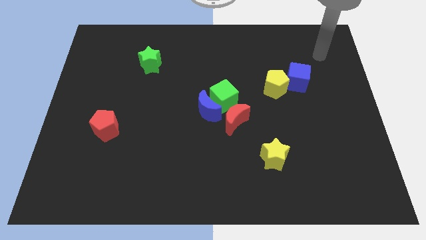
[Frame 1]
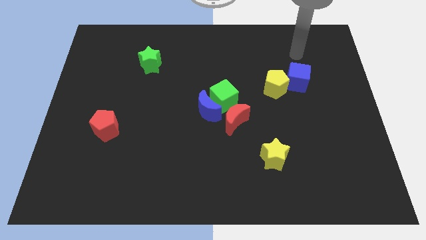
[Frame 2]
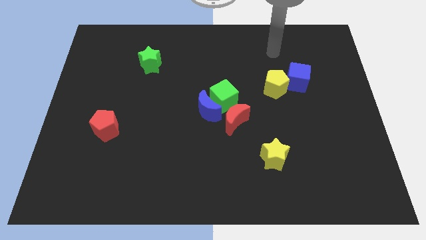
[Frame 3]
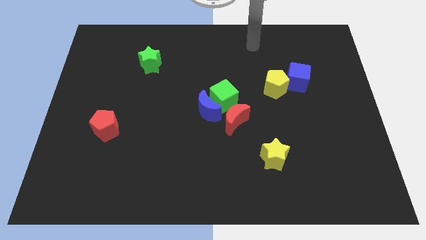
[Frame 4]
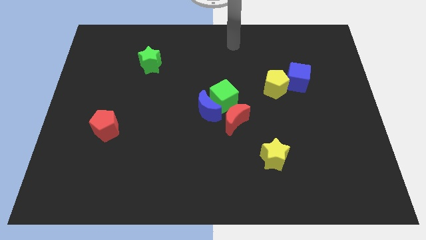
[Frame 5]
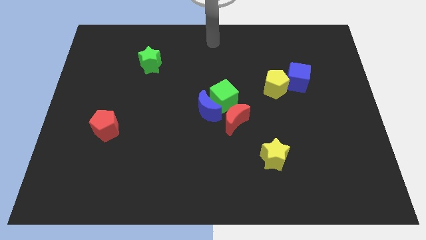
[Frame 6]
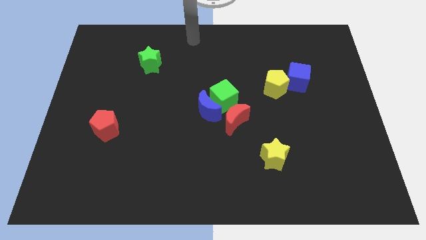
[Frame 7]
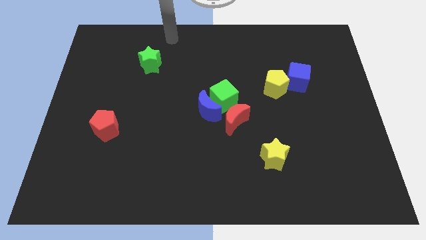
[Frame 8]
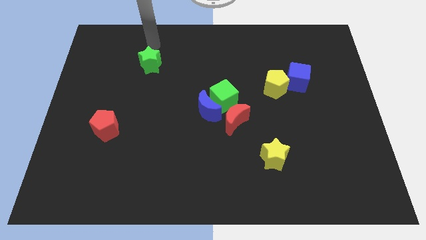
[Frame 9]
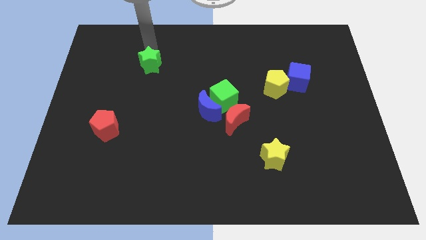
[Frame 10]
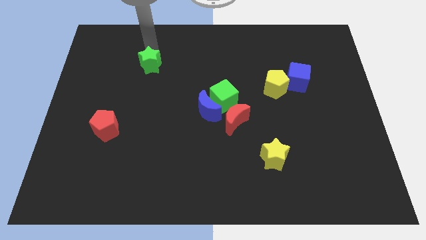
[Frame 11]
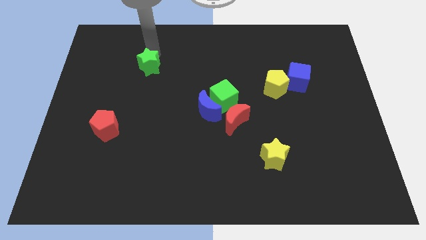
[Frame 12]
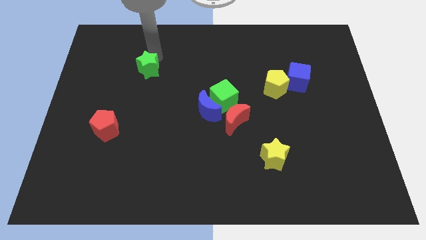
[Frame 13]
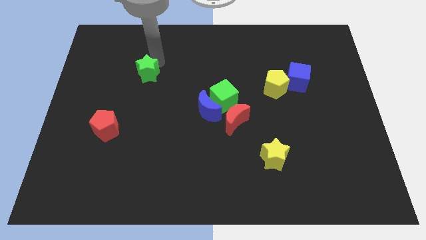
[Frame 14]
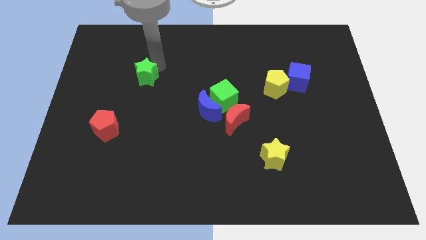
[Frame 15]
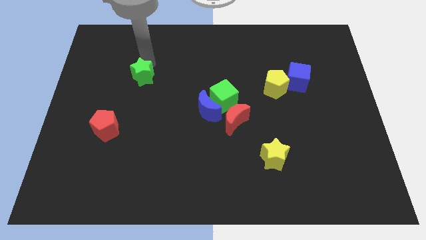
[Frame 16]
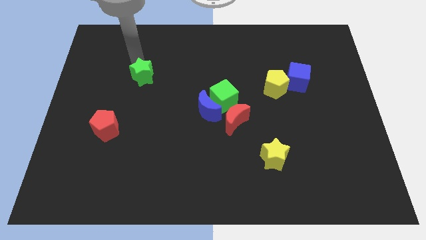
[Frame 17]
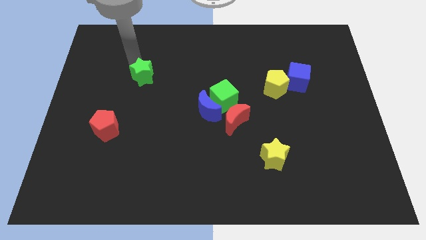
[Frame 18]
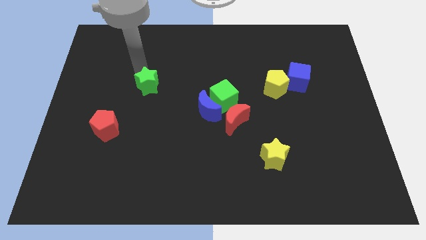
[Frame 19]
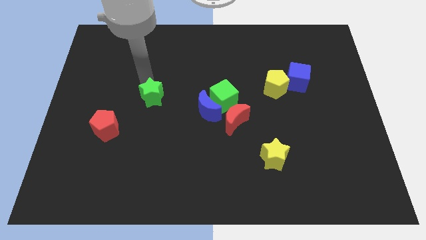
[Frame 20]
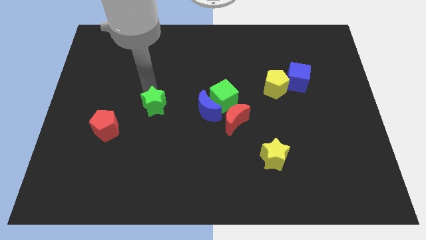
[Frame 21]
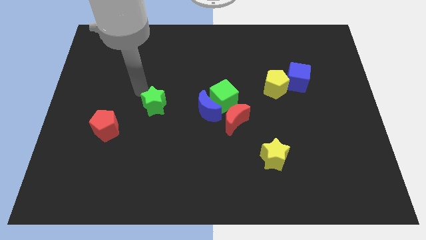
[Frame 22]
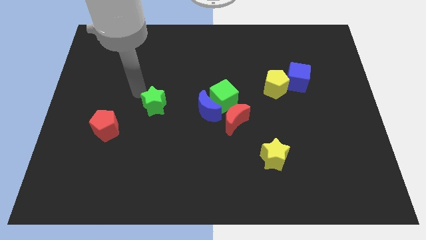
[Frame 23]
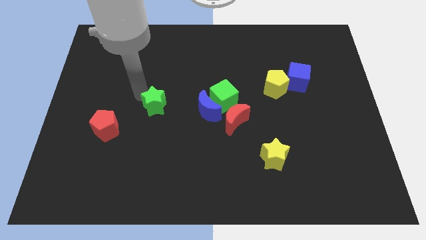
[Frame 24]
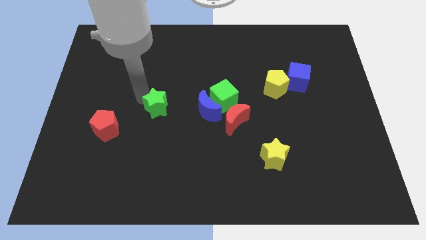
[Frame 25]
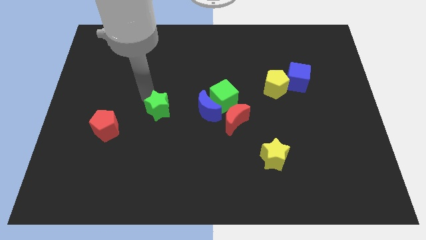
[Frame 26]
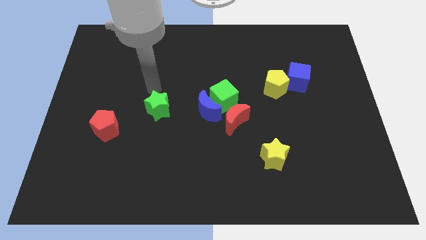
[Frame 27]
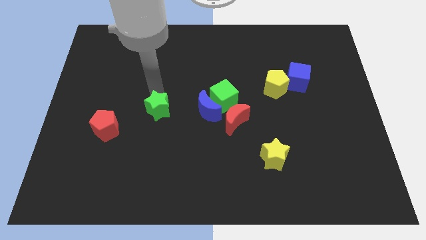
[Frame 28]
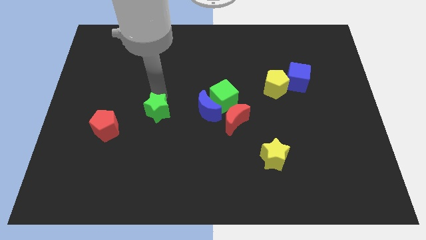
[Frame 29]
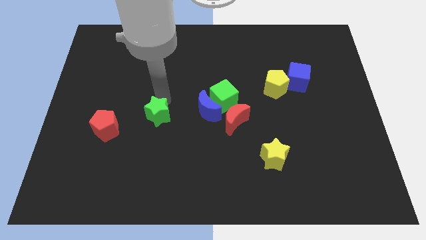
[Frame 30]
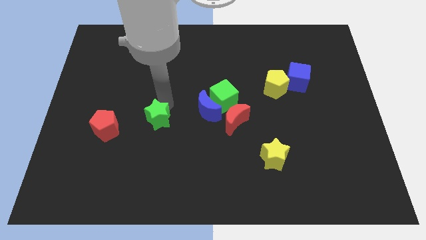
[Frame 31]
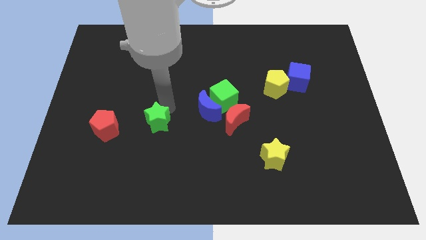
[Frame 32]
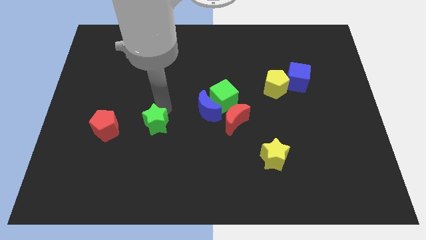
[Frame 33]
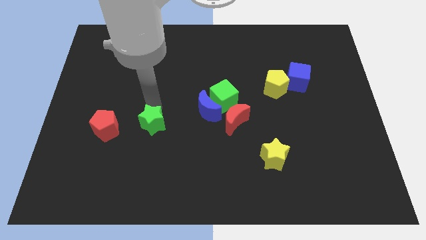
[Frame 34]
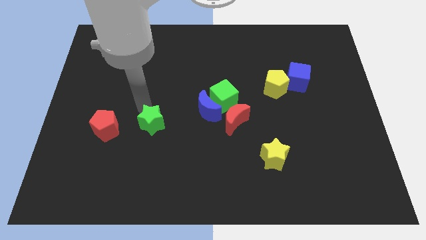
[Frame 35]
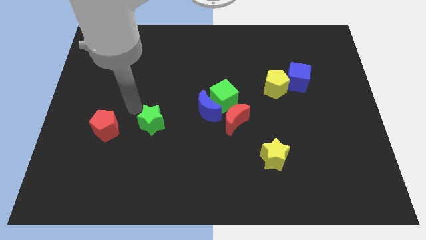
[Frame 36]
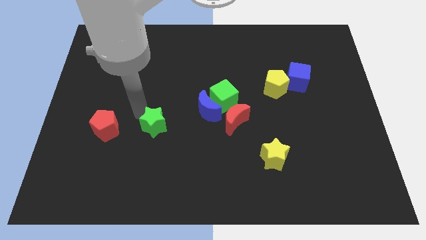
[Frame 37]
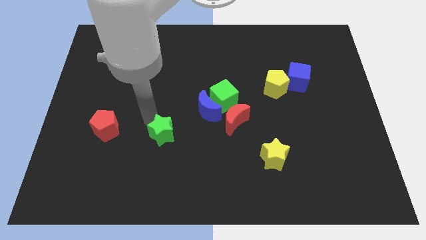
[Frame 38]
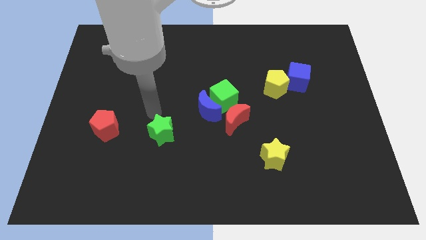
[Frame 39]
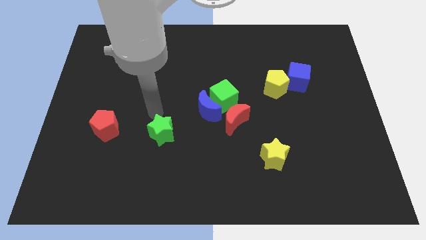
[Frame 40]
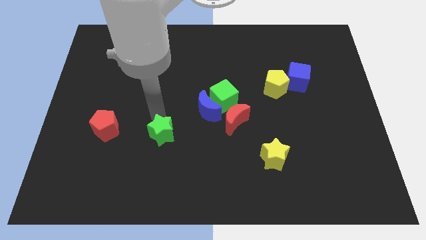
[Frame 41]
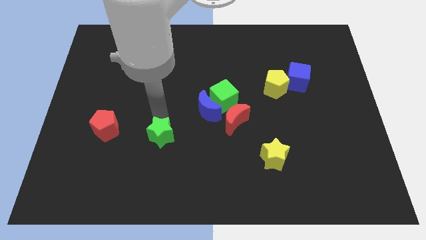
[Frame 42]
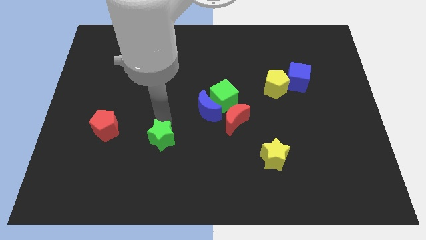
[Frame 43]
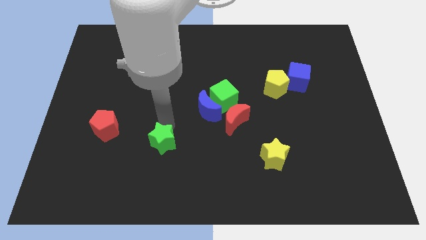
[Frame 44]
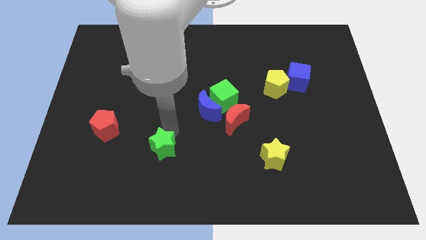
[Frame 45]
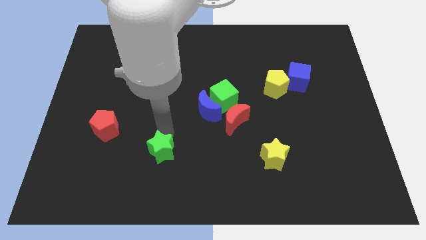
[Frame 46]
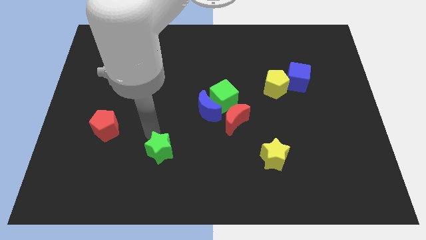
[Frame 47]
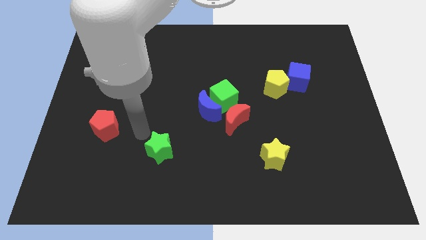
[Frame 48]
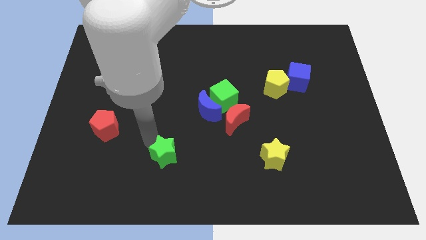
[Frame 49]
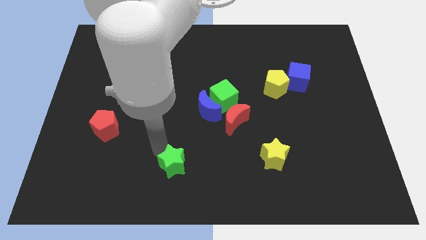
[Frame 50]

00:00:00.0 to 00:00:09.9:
push the green star to the bottom

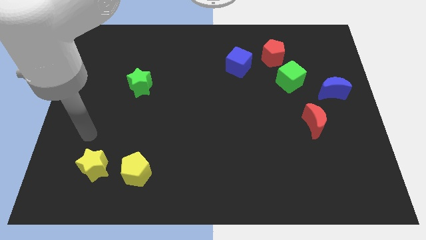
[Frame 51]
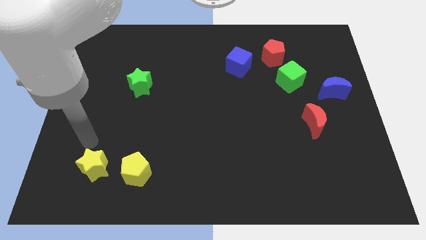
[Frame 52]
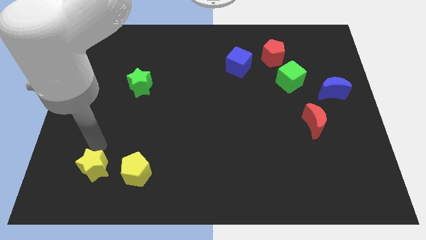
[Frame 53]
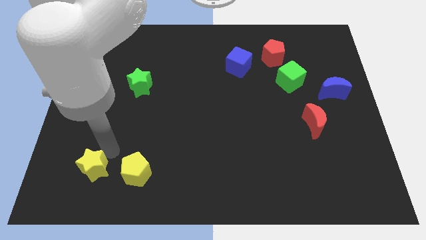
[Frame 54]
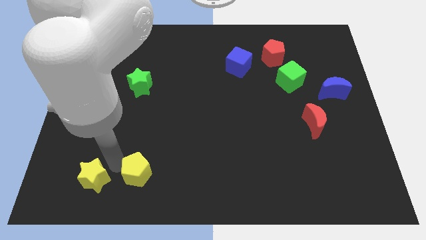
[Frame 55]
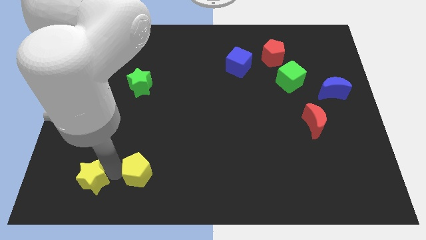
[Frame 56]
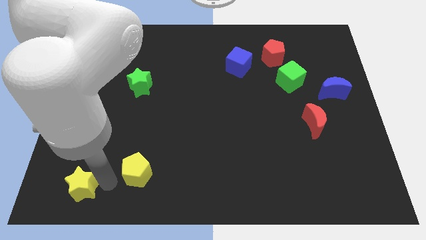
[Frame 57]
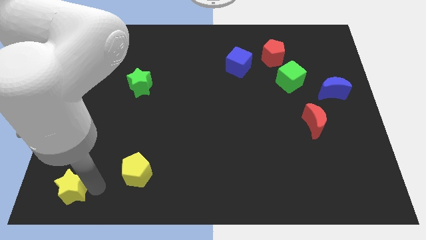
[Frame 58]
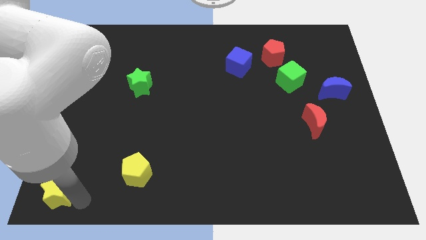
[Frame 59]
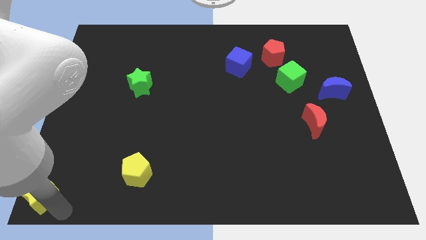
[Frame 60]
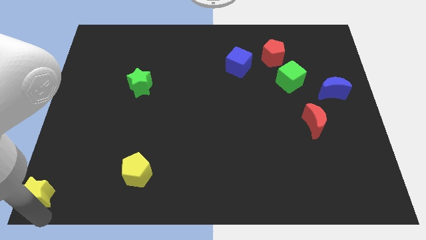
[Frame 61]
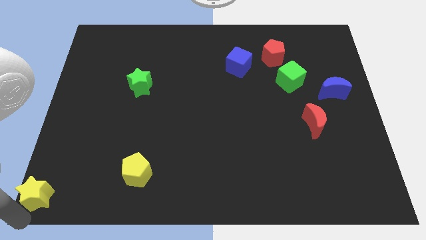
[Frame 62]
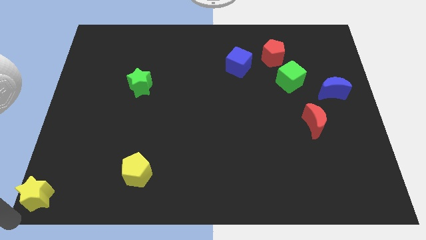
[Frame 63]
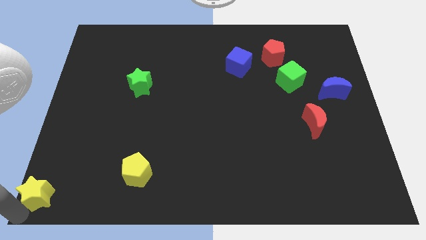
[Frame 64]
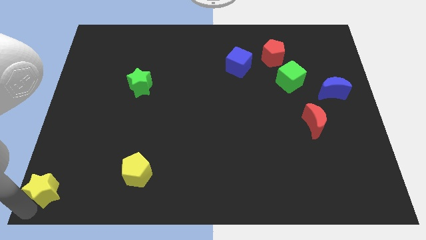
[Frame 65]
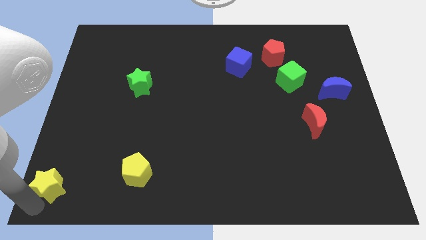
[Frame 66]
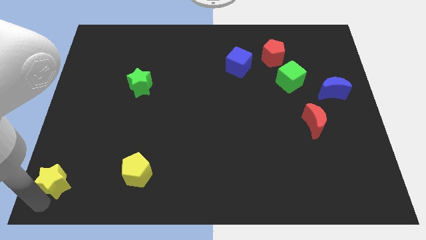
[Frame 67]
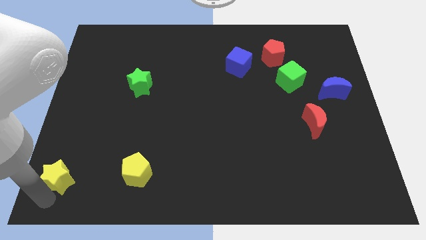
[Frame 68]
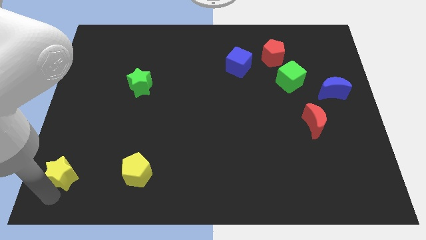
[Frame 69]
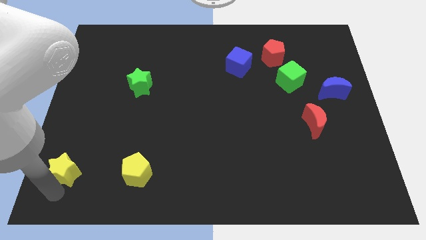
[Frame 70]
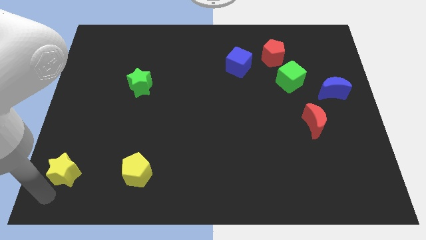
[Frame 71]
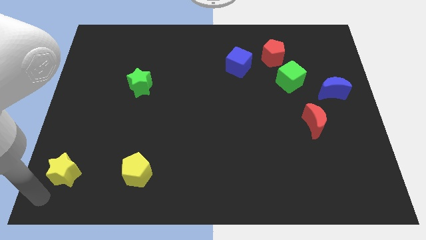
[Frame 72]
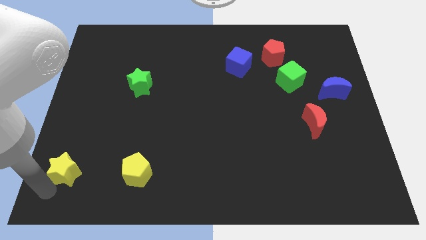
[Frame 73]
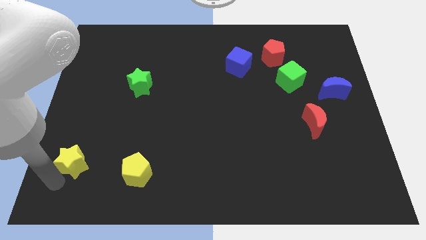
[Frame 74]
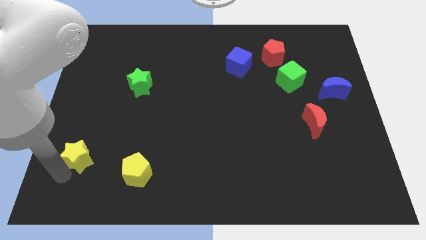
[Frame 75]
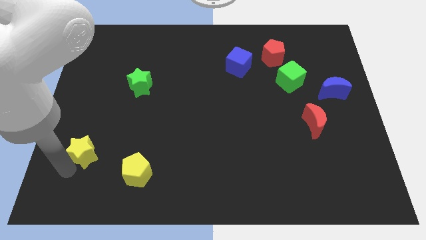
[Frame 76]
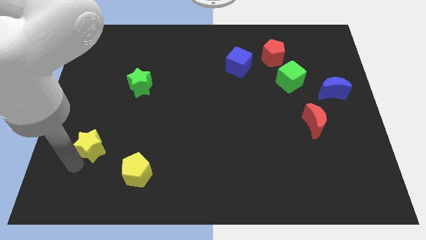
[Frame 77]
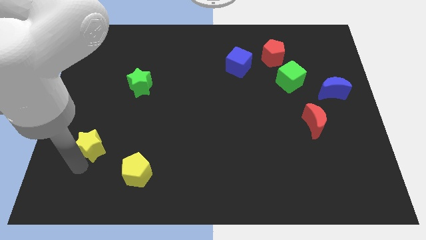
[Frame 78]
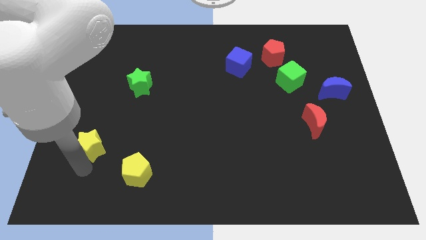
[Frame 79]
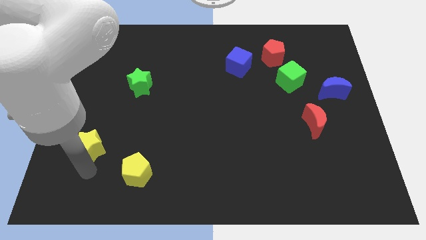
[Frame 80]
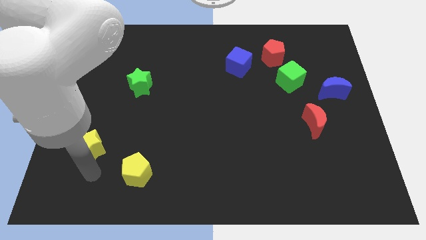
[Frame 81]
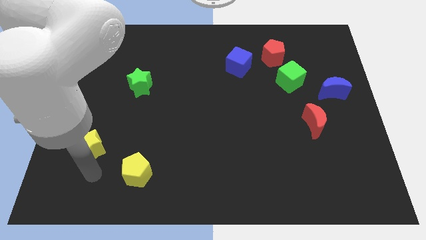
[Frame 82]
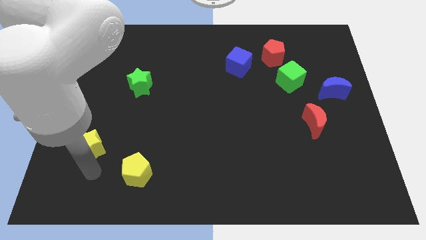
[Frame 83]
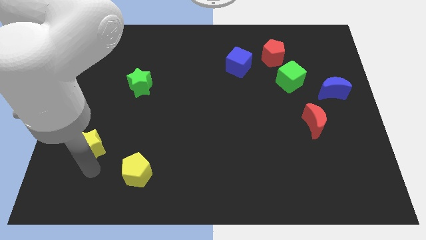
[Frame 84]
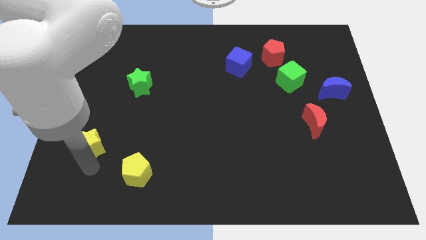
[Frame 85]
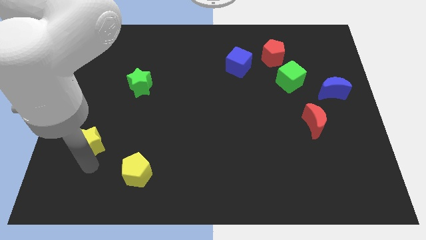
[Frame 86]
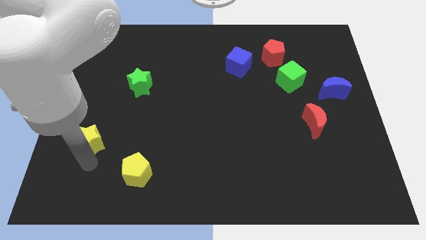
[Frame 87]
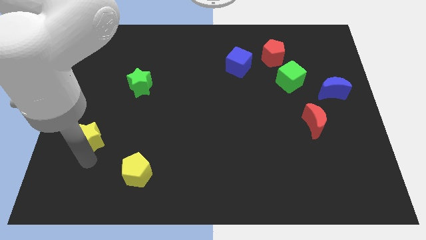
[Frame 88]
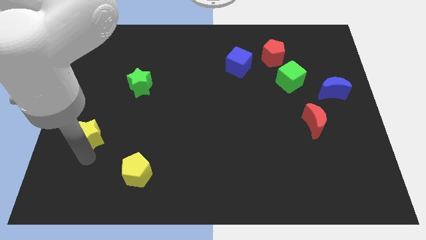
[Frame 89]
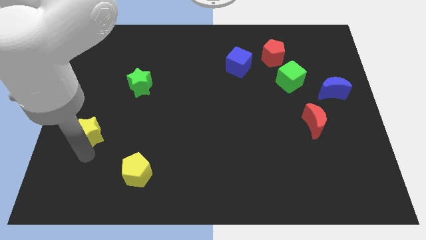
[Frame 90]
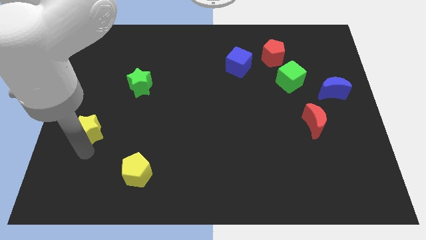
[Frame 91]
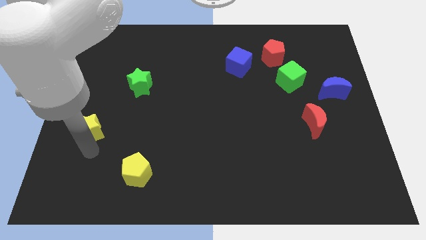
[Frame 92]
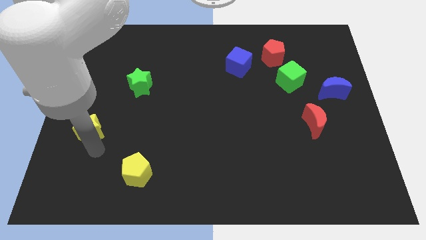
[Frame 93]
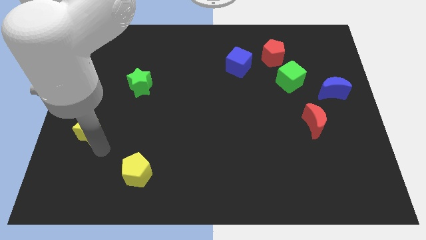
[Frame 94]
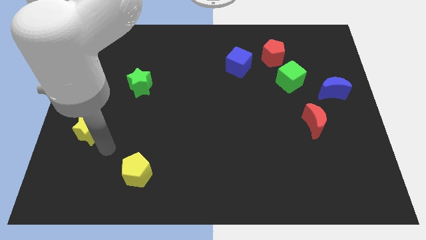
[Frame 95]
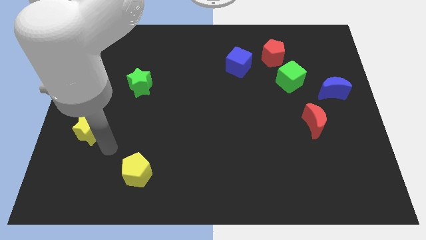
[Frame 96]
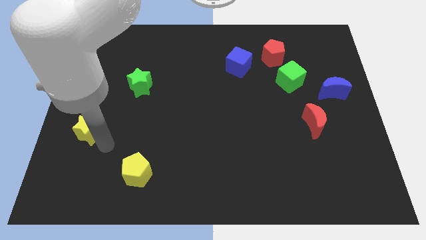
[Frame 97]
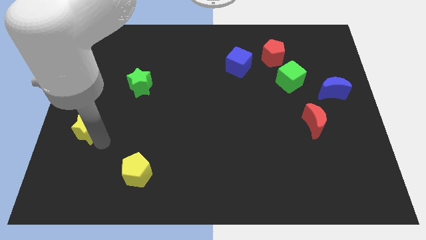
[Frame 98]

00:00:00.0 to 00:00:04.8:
slide the yellow star to the left side of the board
